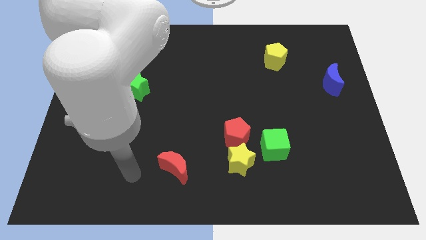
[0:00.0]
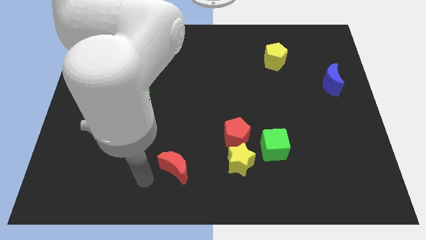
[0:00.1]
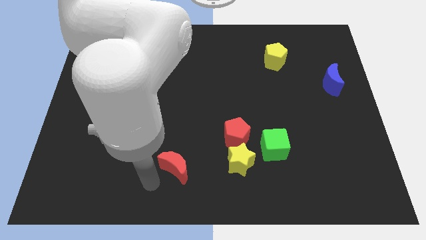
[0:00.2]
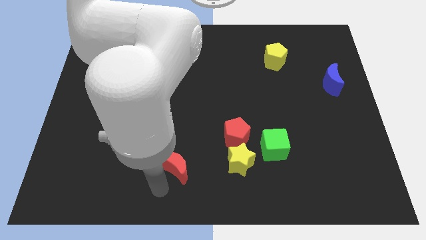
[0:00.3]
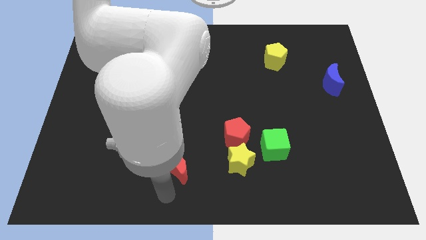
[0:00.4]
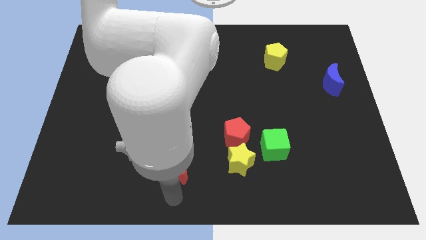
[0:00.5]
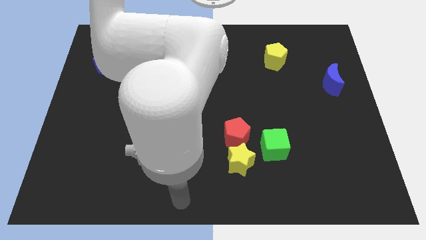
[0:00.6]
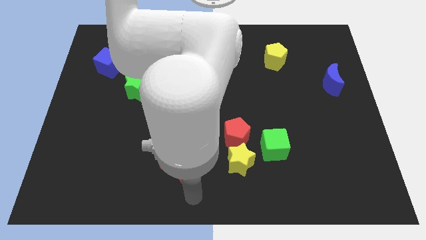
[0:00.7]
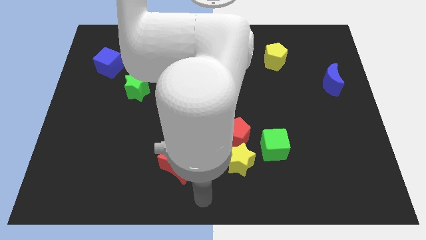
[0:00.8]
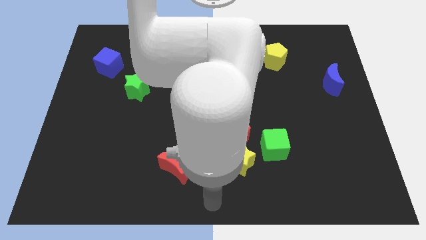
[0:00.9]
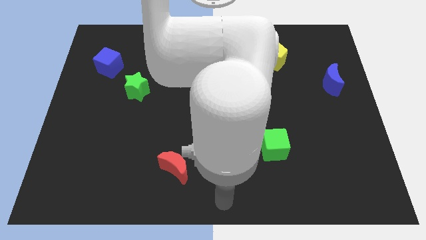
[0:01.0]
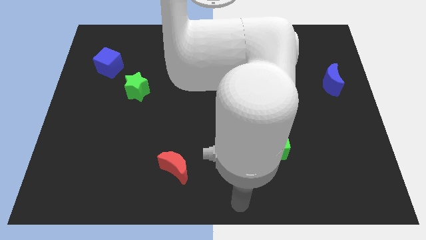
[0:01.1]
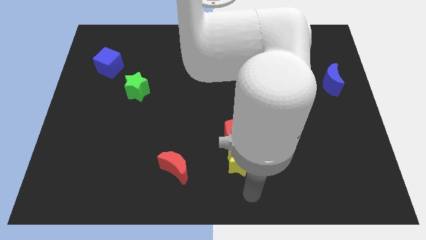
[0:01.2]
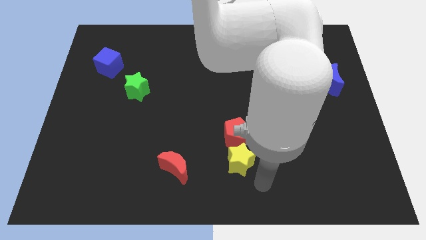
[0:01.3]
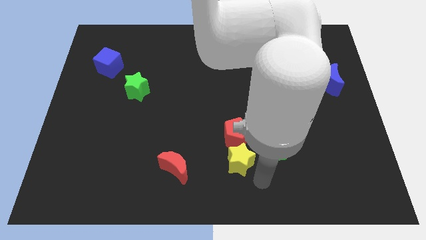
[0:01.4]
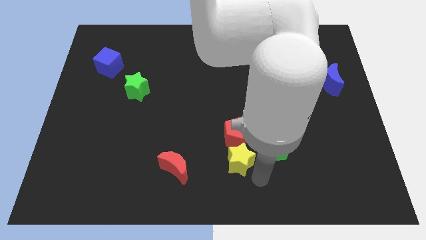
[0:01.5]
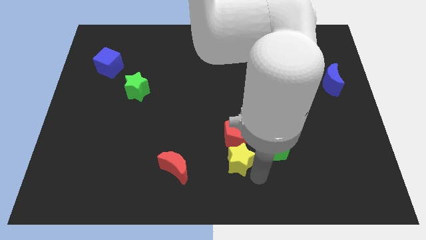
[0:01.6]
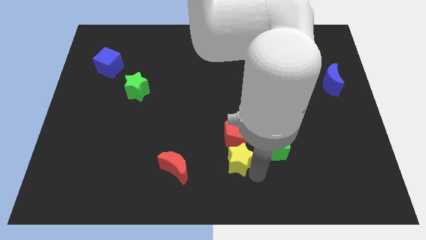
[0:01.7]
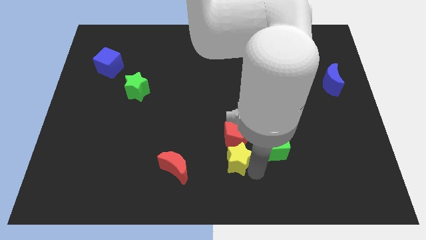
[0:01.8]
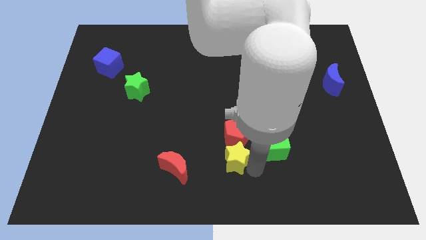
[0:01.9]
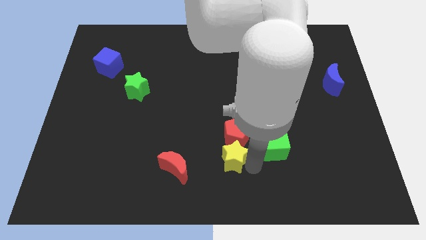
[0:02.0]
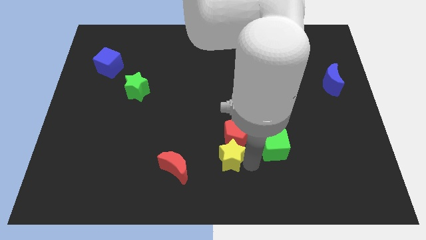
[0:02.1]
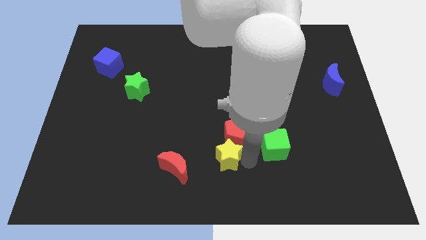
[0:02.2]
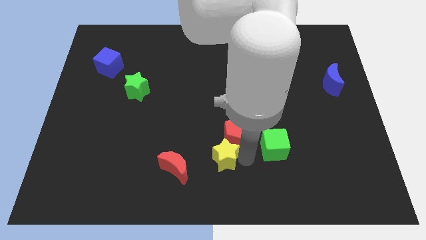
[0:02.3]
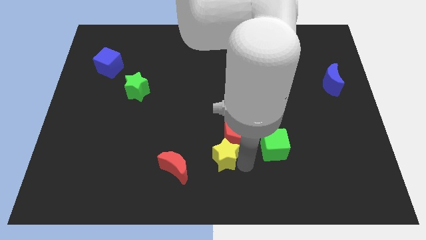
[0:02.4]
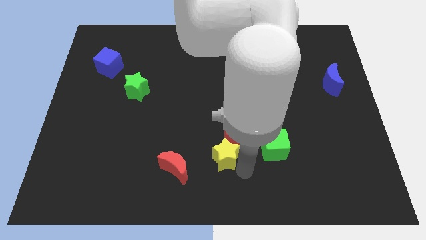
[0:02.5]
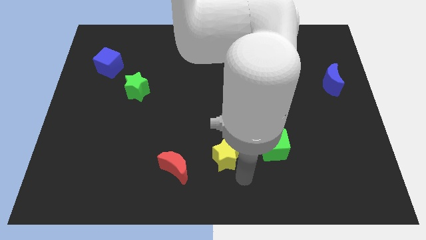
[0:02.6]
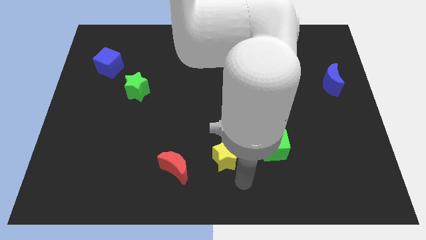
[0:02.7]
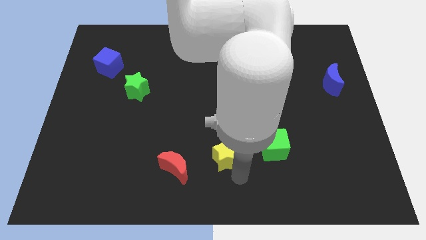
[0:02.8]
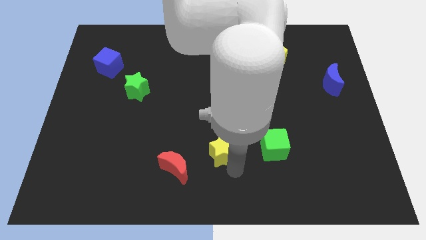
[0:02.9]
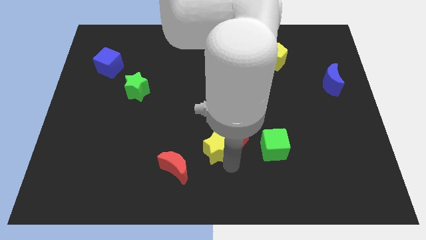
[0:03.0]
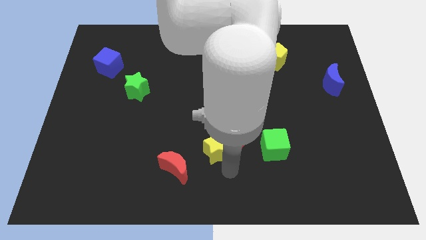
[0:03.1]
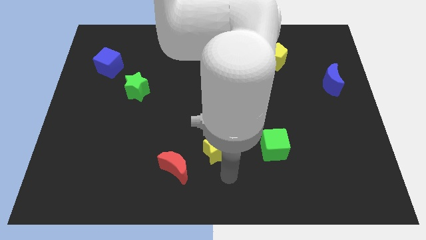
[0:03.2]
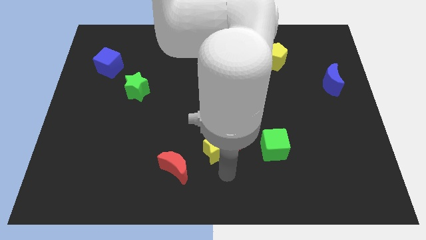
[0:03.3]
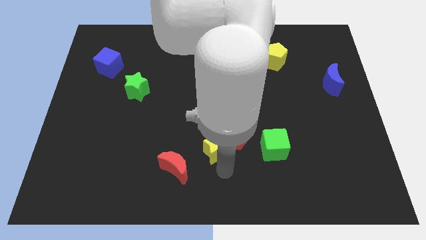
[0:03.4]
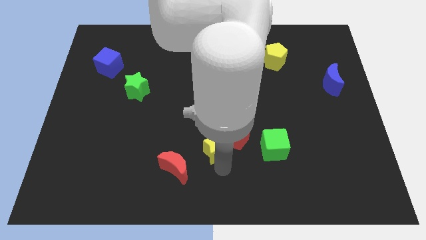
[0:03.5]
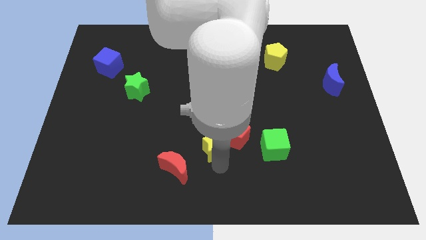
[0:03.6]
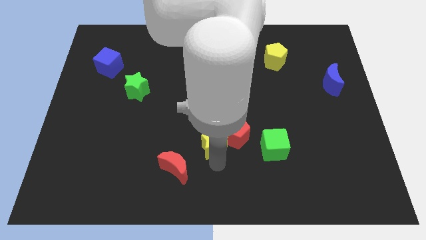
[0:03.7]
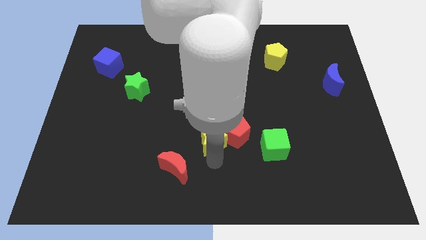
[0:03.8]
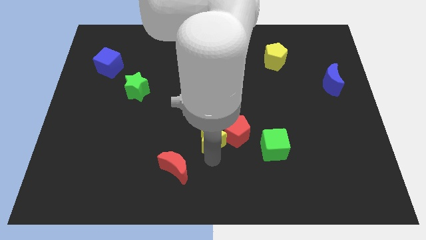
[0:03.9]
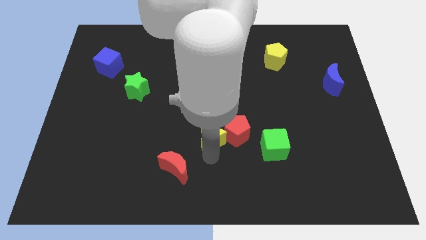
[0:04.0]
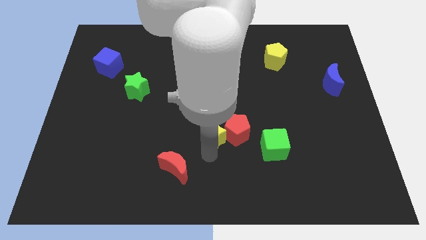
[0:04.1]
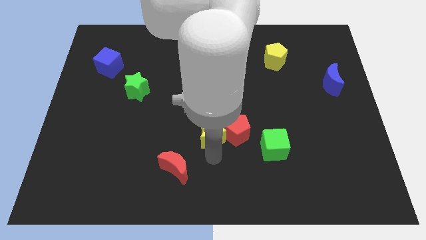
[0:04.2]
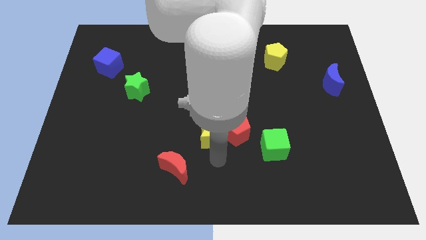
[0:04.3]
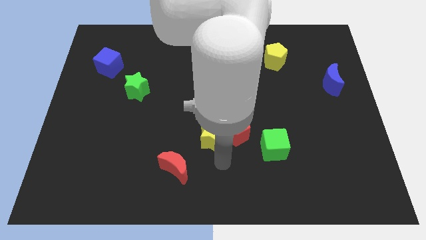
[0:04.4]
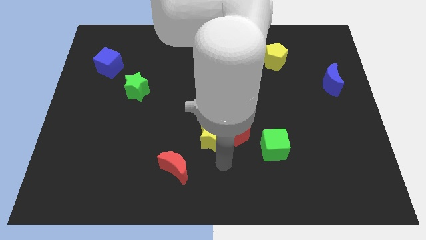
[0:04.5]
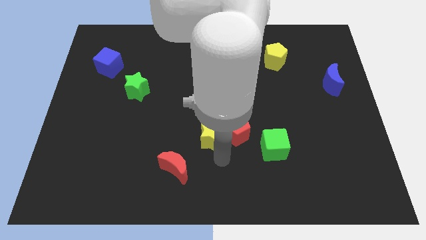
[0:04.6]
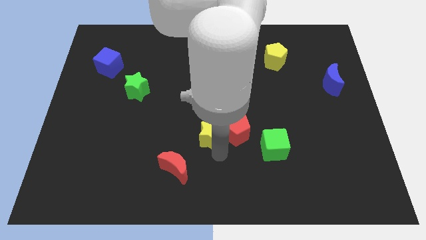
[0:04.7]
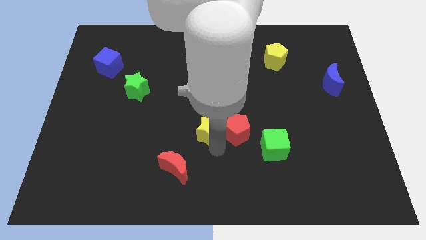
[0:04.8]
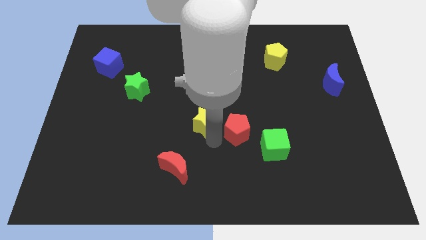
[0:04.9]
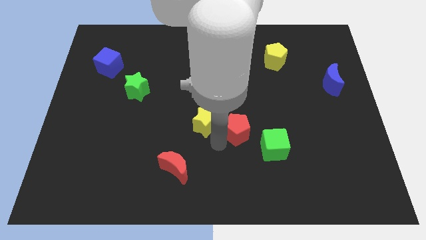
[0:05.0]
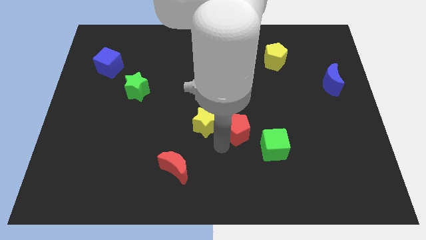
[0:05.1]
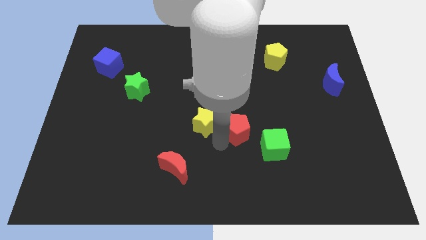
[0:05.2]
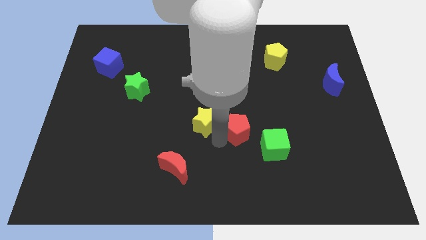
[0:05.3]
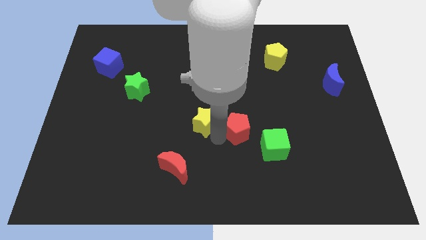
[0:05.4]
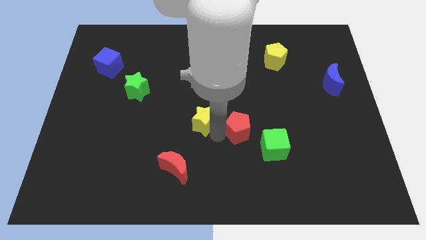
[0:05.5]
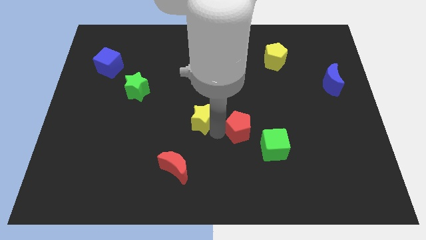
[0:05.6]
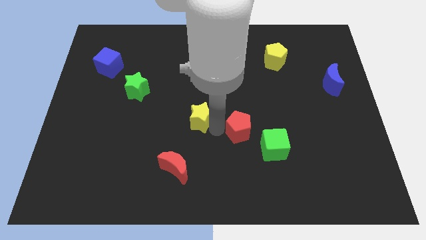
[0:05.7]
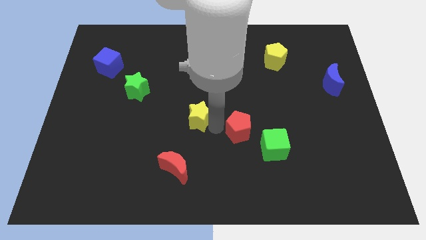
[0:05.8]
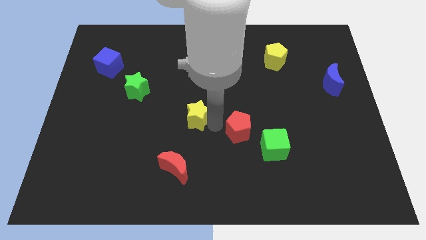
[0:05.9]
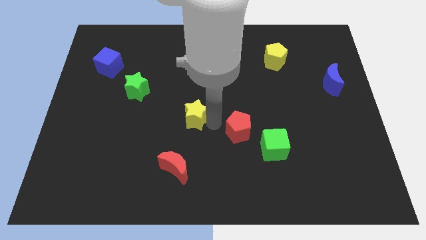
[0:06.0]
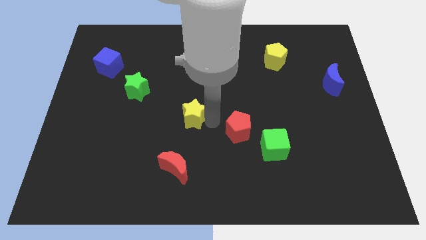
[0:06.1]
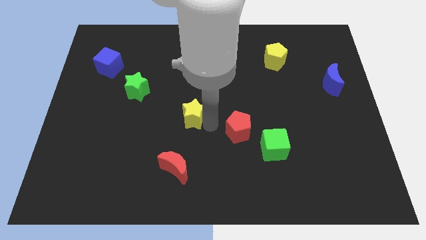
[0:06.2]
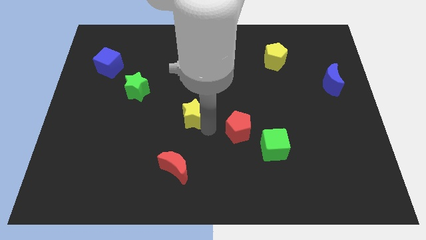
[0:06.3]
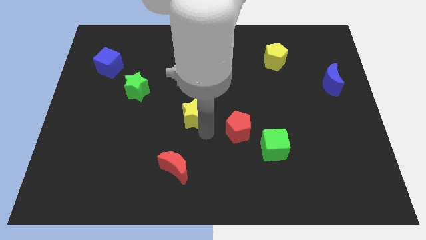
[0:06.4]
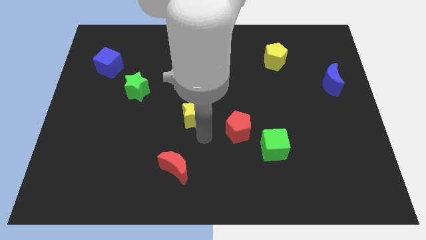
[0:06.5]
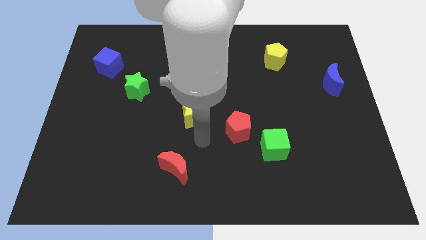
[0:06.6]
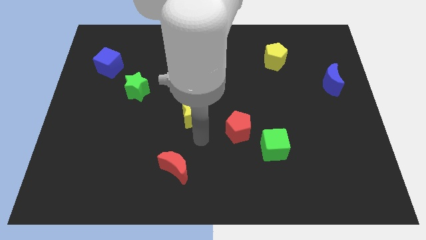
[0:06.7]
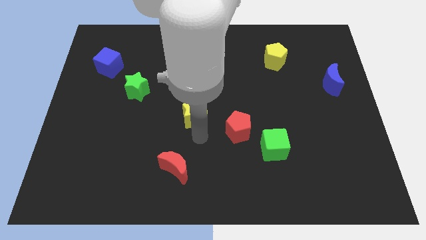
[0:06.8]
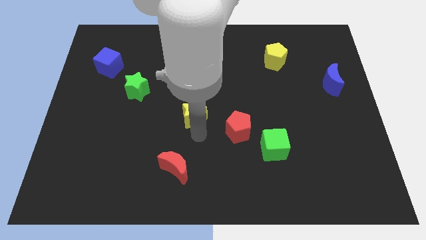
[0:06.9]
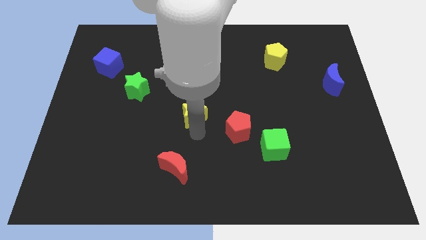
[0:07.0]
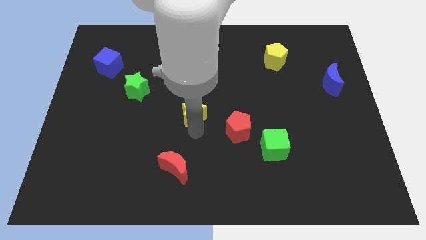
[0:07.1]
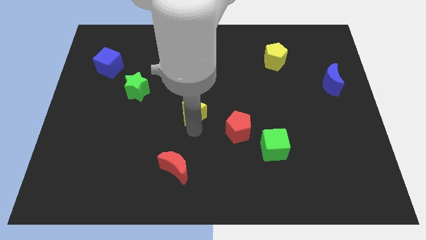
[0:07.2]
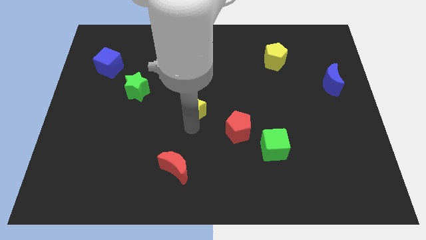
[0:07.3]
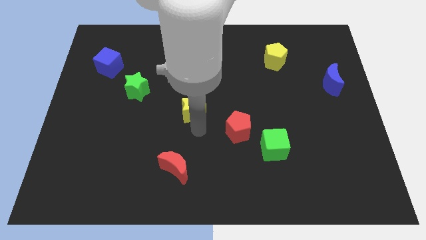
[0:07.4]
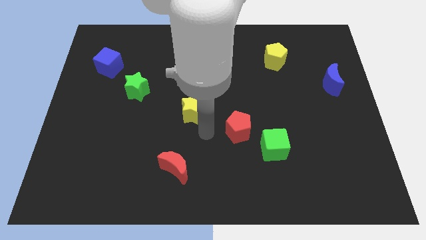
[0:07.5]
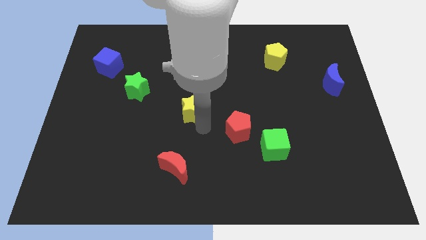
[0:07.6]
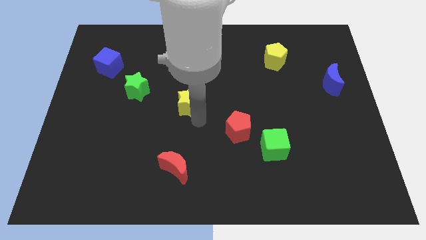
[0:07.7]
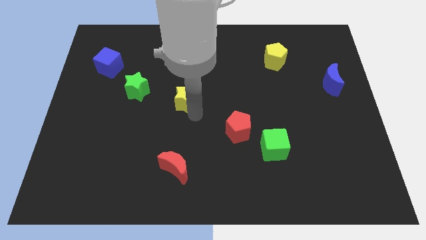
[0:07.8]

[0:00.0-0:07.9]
put the yellow star to the right of the green star
